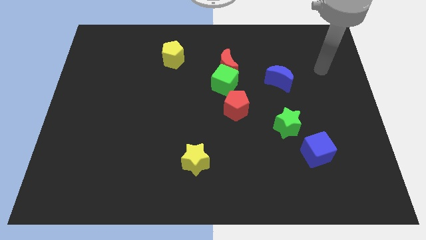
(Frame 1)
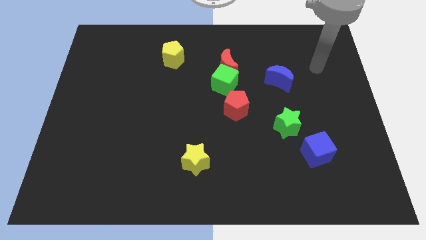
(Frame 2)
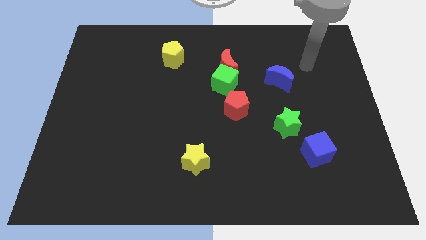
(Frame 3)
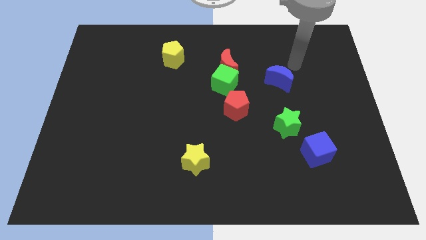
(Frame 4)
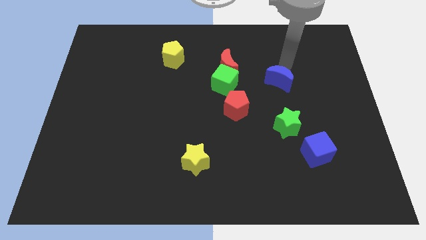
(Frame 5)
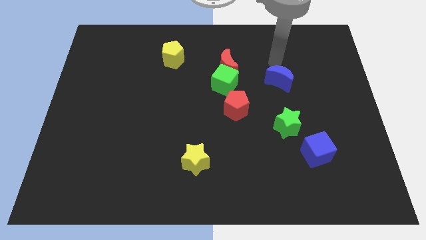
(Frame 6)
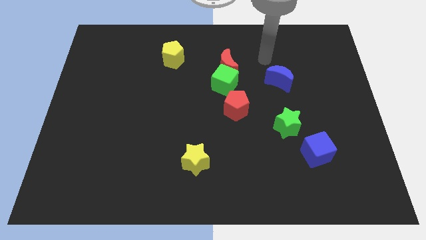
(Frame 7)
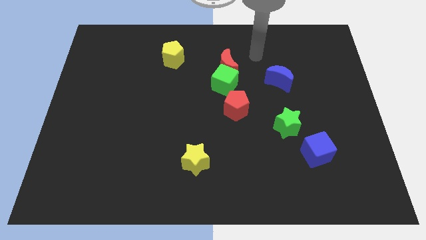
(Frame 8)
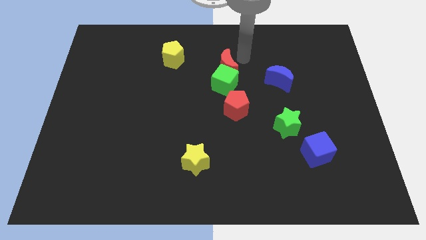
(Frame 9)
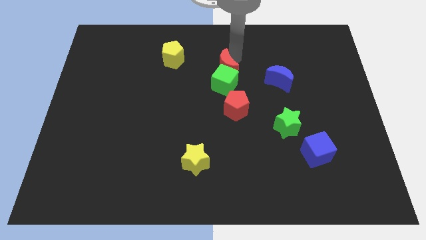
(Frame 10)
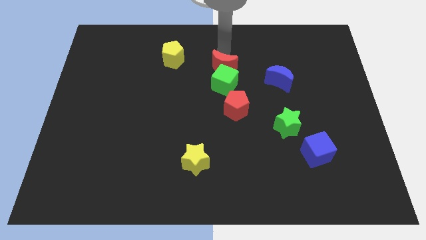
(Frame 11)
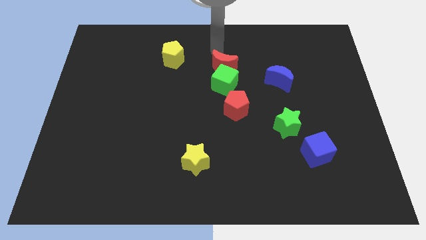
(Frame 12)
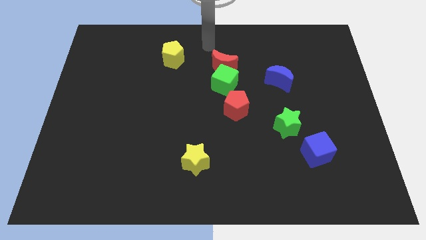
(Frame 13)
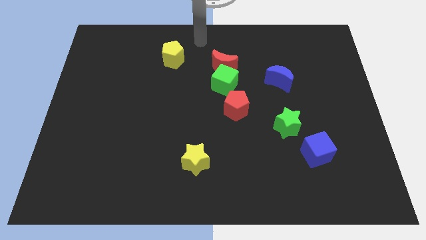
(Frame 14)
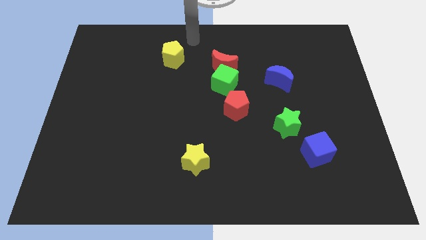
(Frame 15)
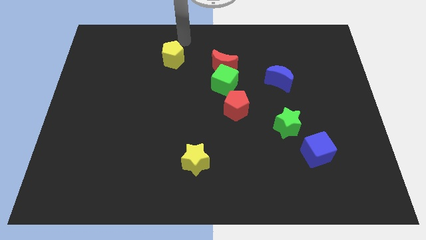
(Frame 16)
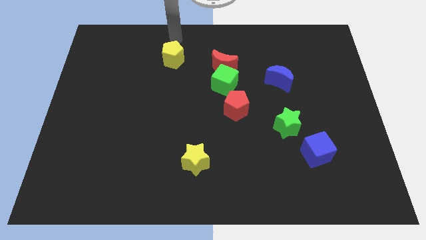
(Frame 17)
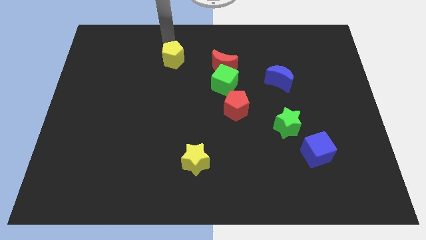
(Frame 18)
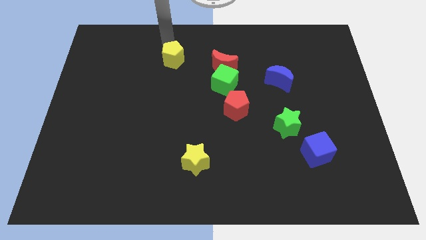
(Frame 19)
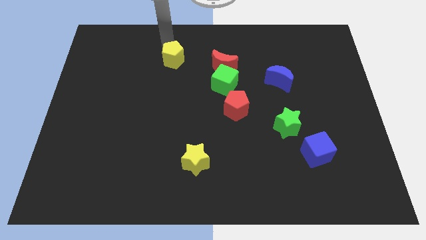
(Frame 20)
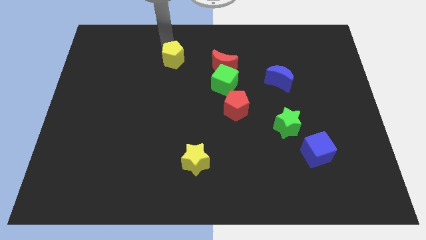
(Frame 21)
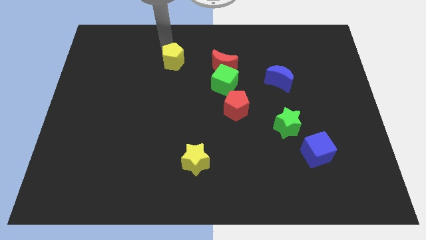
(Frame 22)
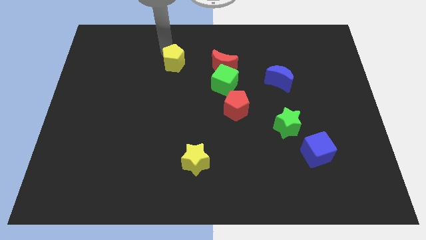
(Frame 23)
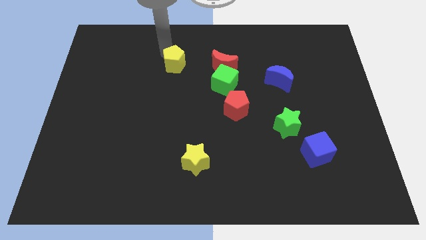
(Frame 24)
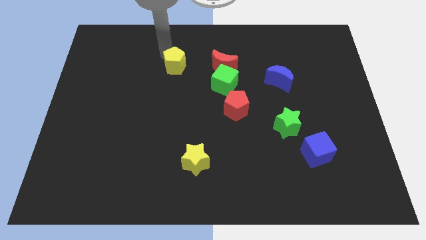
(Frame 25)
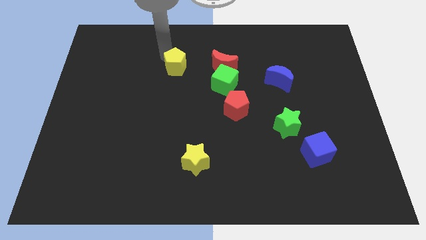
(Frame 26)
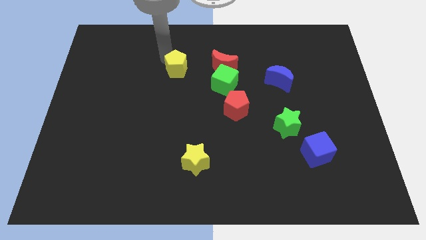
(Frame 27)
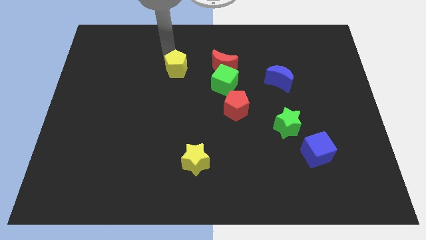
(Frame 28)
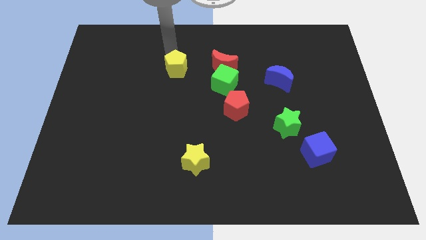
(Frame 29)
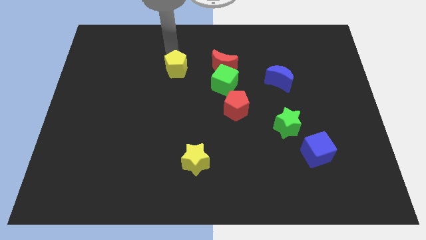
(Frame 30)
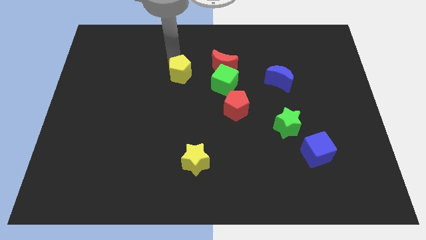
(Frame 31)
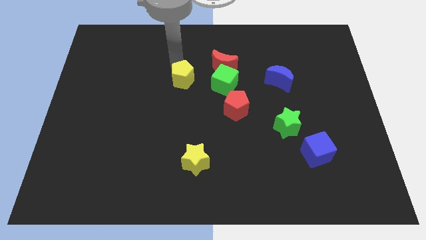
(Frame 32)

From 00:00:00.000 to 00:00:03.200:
slide the yellow pentagon somewhat downwards and right

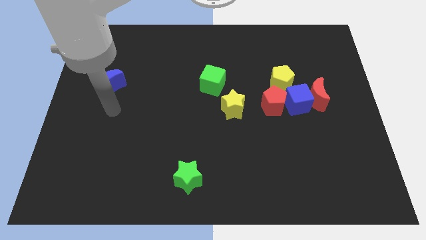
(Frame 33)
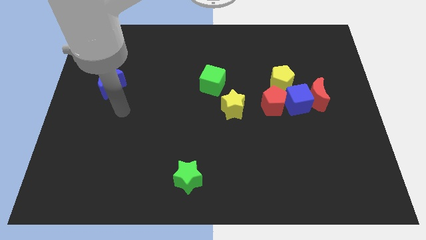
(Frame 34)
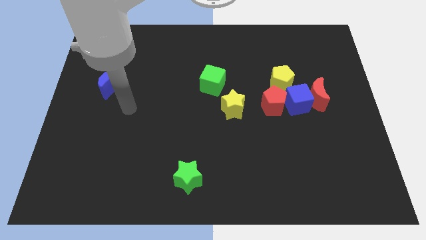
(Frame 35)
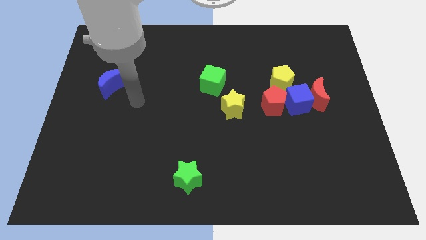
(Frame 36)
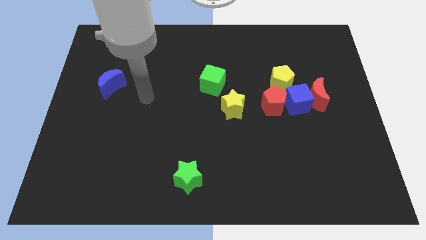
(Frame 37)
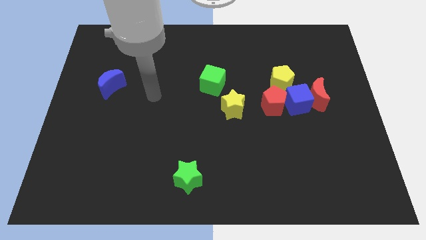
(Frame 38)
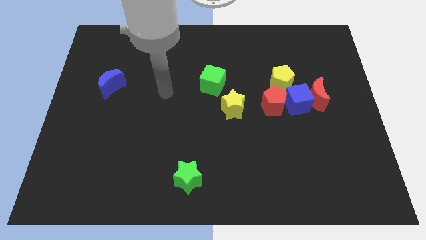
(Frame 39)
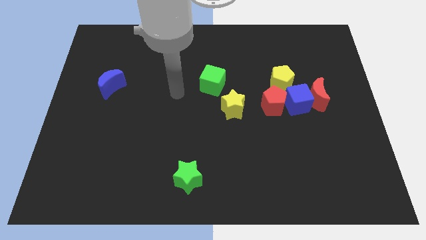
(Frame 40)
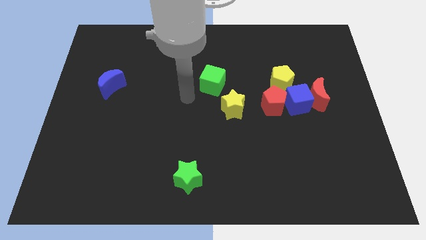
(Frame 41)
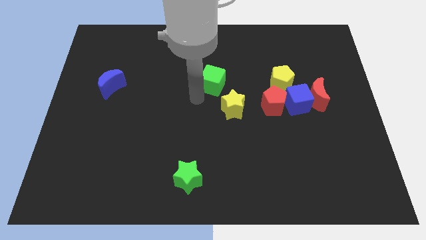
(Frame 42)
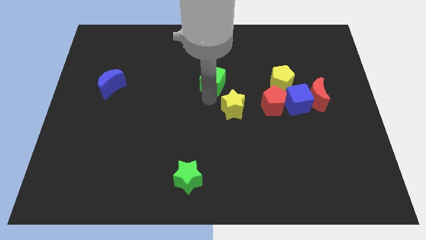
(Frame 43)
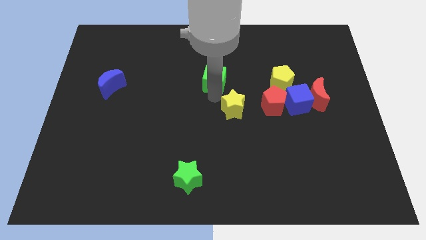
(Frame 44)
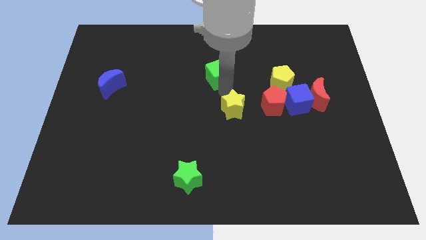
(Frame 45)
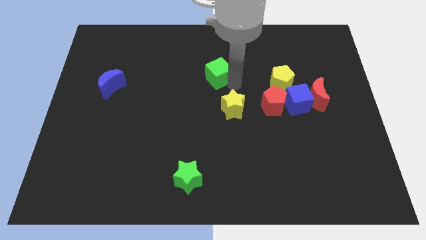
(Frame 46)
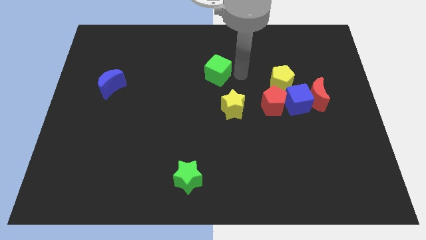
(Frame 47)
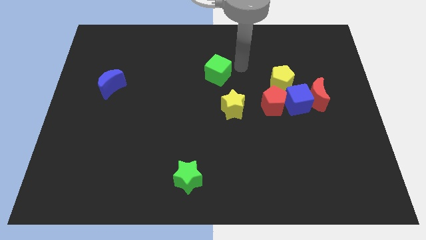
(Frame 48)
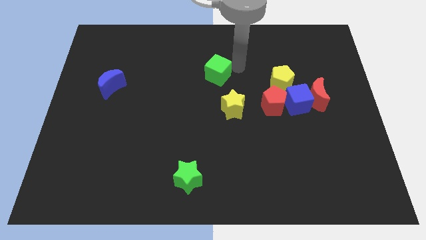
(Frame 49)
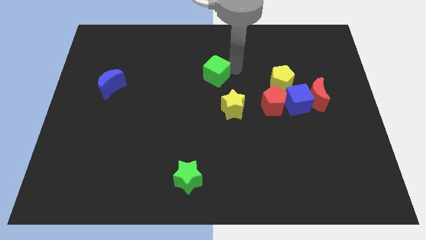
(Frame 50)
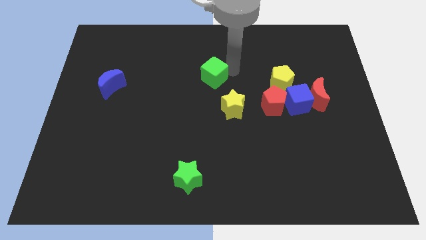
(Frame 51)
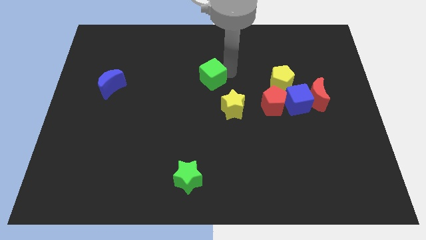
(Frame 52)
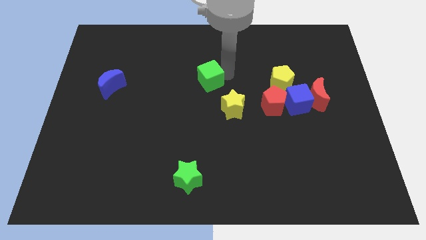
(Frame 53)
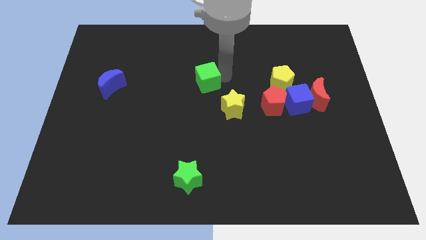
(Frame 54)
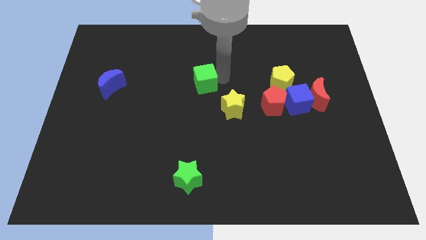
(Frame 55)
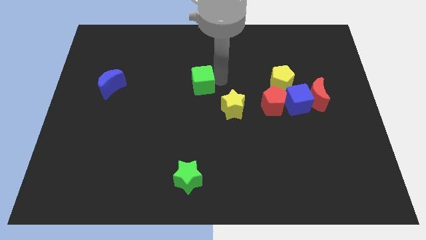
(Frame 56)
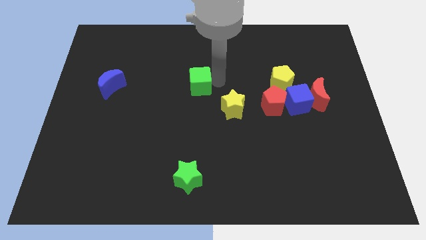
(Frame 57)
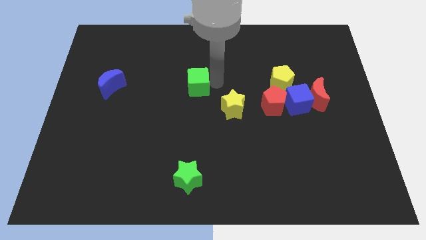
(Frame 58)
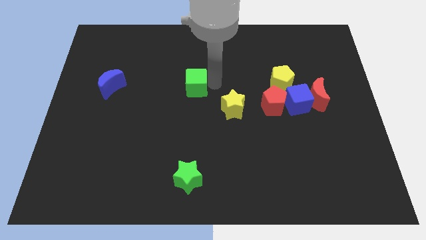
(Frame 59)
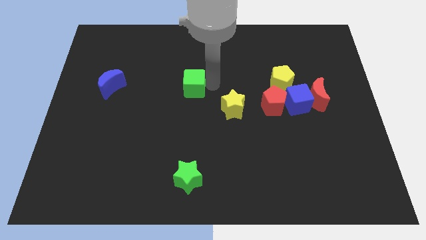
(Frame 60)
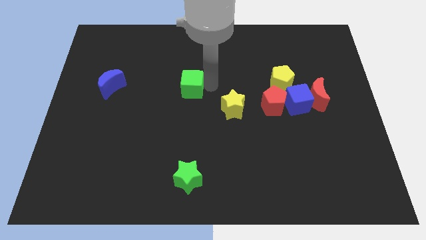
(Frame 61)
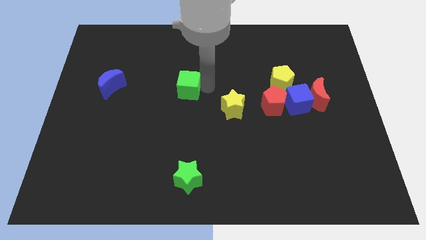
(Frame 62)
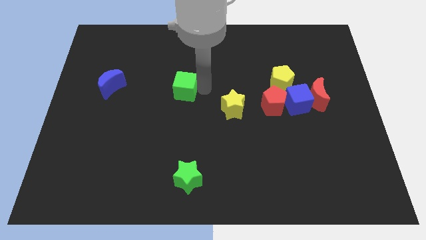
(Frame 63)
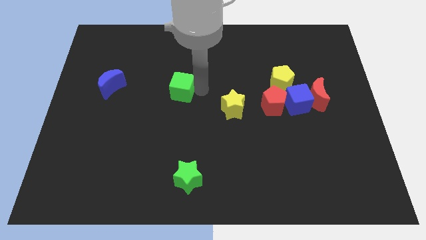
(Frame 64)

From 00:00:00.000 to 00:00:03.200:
slide the green cube left a bit

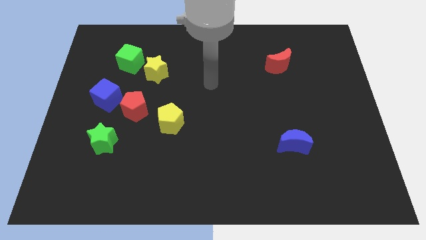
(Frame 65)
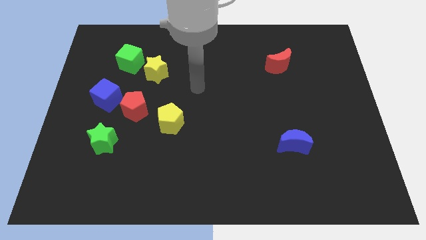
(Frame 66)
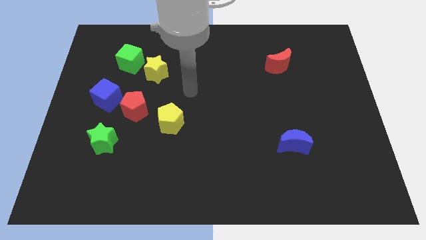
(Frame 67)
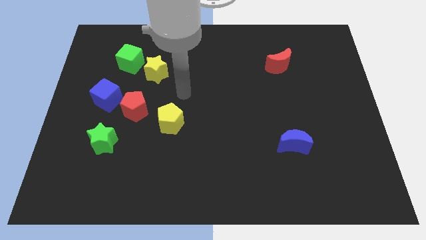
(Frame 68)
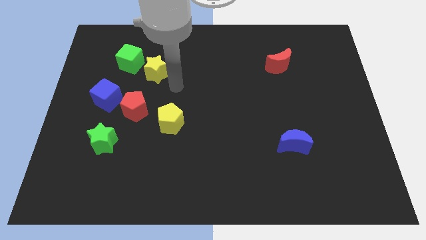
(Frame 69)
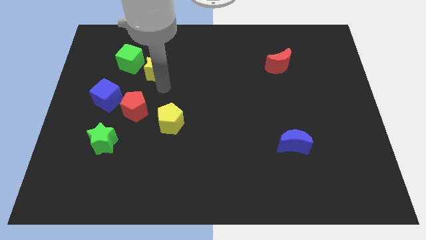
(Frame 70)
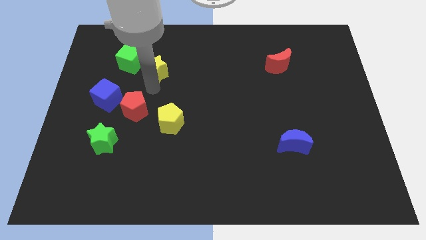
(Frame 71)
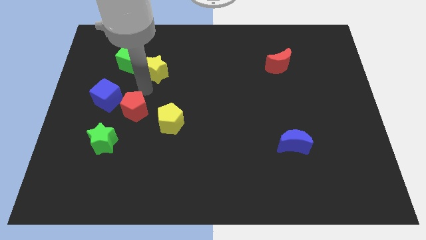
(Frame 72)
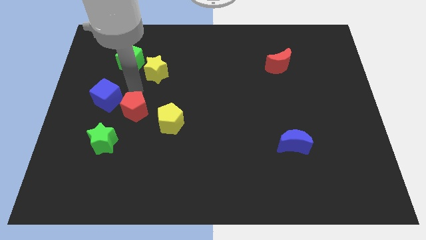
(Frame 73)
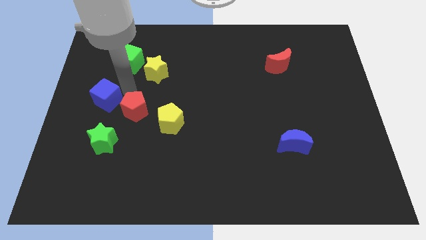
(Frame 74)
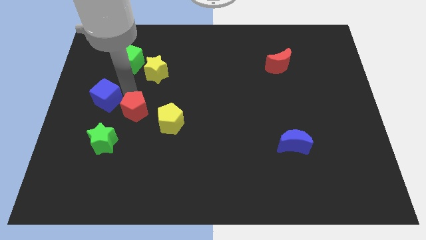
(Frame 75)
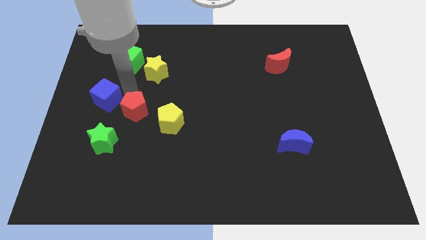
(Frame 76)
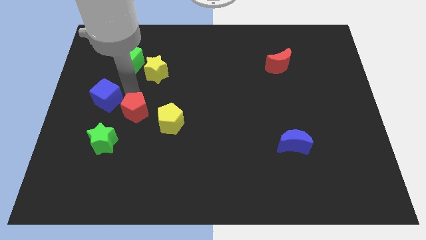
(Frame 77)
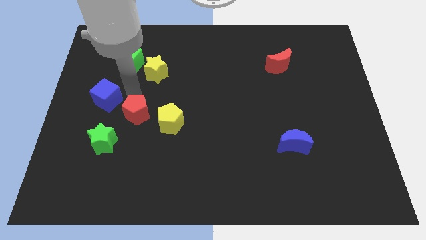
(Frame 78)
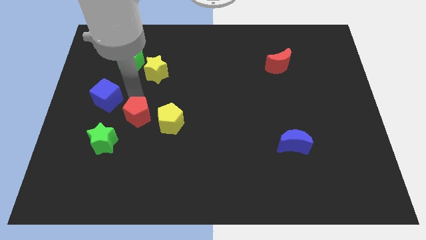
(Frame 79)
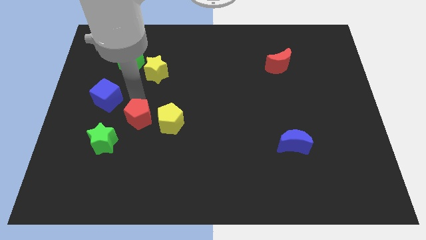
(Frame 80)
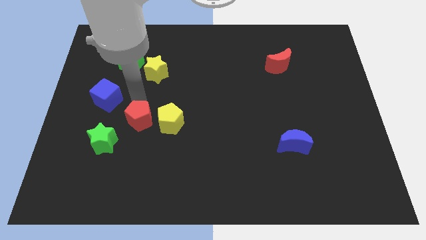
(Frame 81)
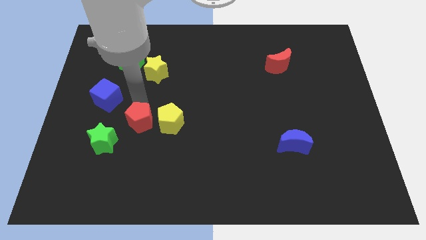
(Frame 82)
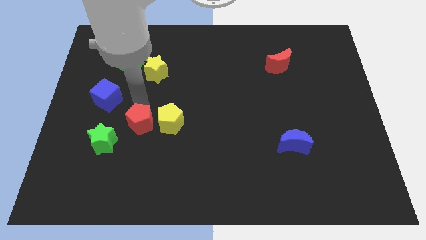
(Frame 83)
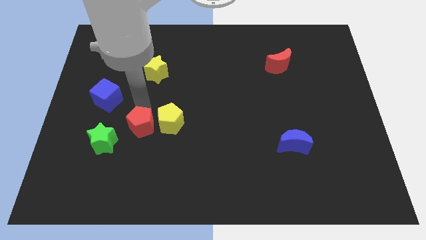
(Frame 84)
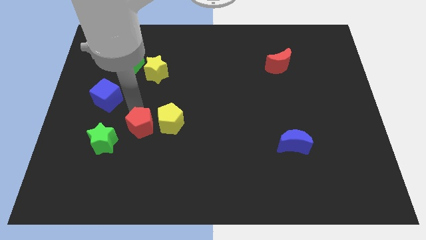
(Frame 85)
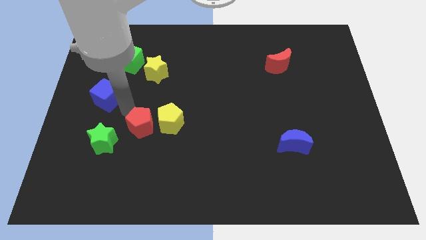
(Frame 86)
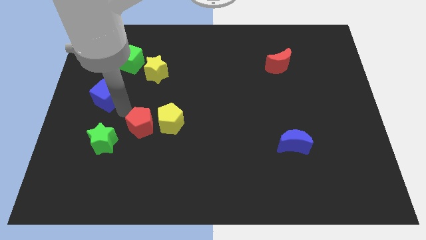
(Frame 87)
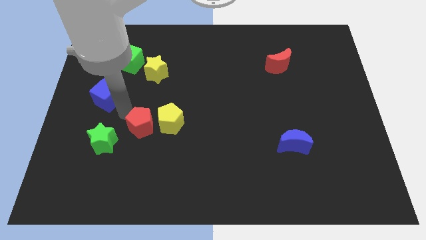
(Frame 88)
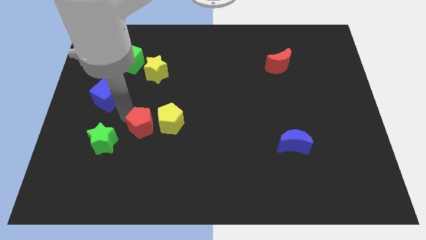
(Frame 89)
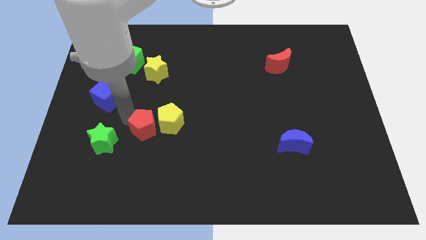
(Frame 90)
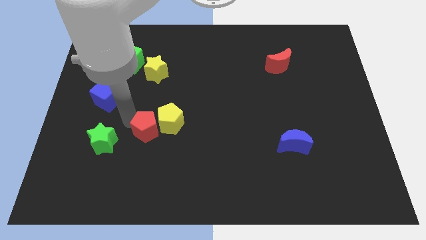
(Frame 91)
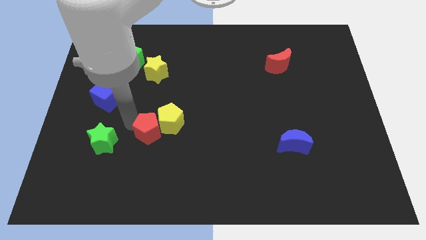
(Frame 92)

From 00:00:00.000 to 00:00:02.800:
push the red pentagon down and then right somewhat
